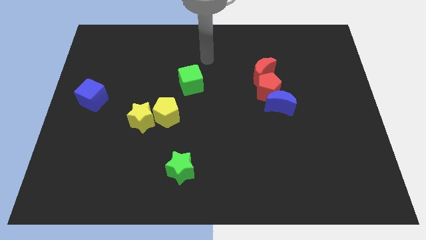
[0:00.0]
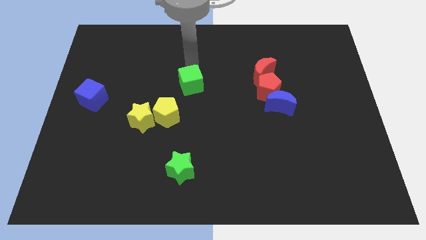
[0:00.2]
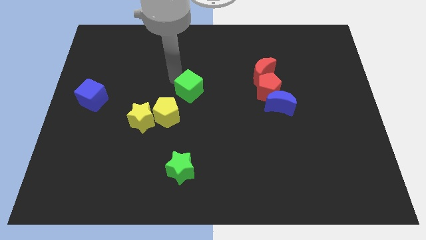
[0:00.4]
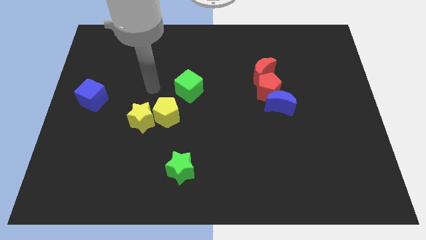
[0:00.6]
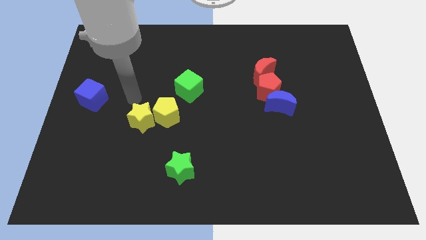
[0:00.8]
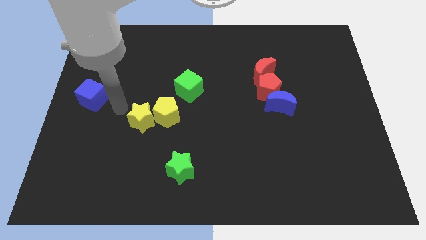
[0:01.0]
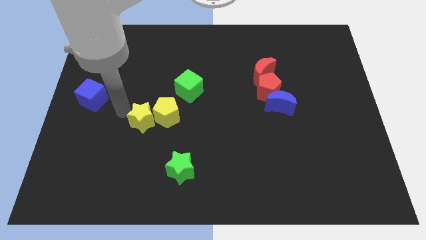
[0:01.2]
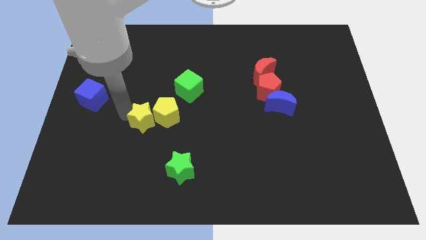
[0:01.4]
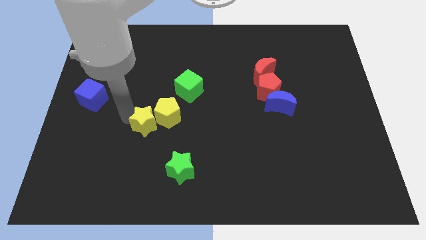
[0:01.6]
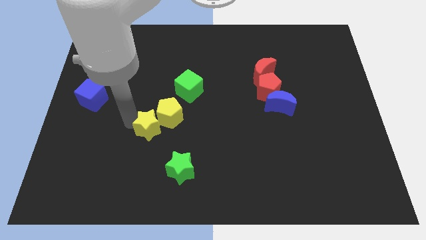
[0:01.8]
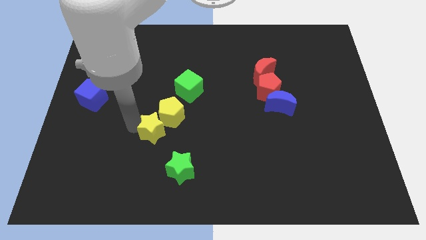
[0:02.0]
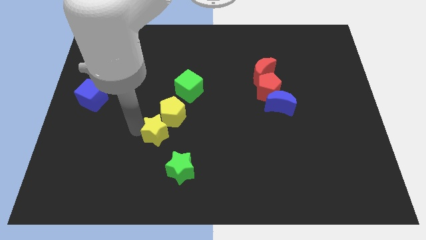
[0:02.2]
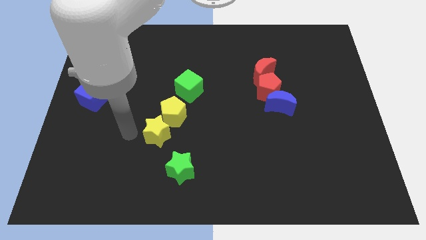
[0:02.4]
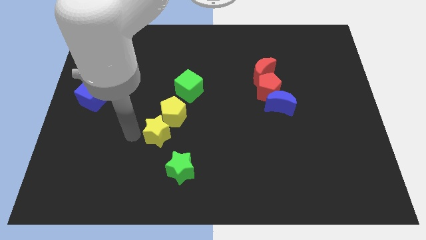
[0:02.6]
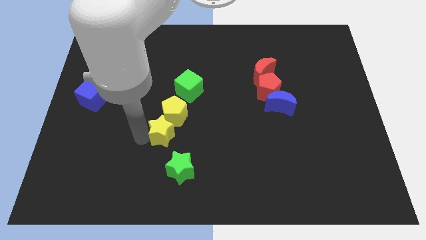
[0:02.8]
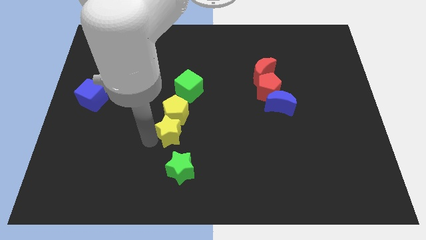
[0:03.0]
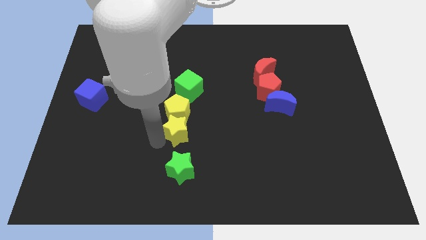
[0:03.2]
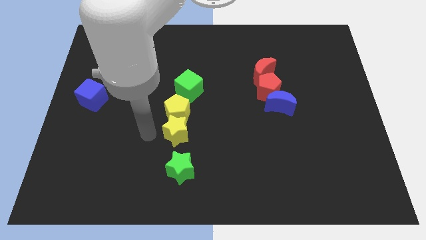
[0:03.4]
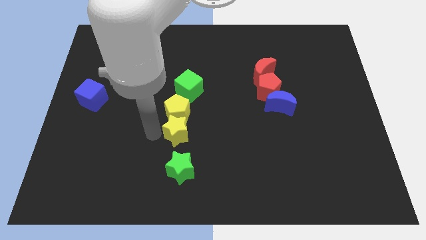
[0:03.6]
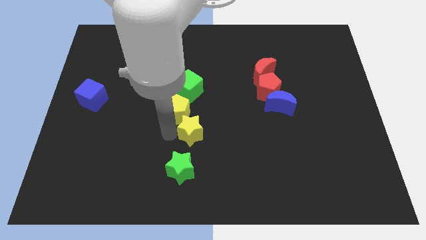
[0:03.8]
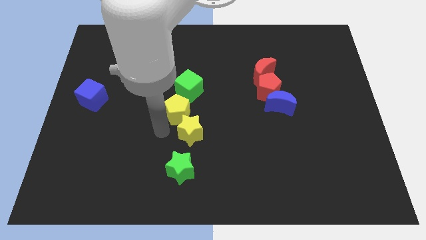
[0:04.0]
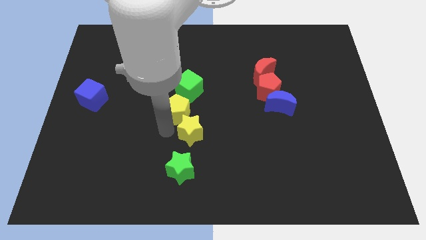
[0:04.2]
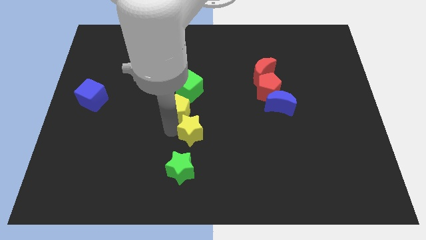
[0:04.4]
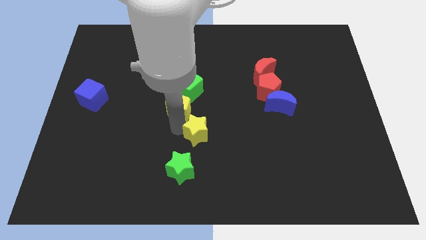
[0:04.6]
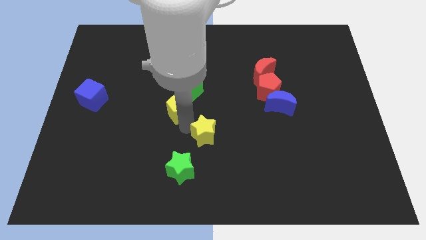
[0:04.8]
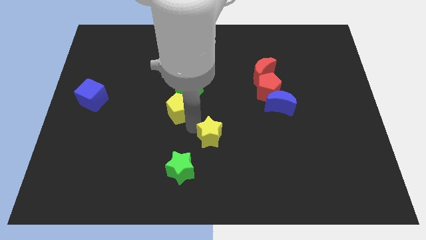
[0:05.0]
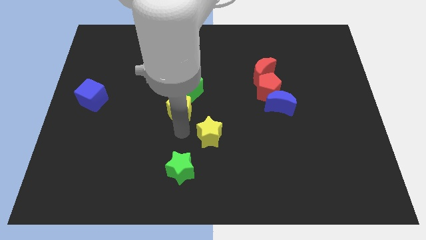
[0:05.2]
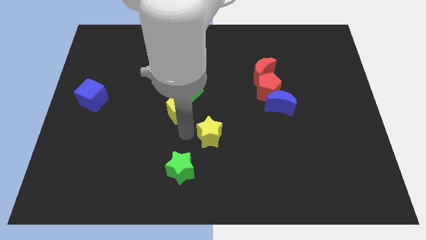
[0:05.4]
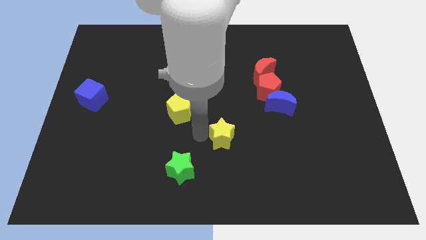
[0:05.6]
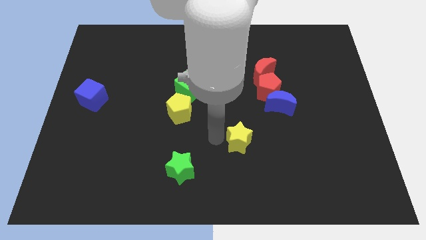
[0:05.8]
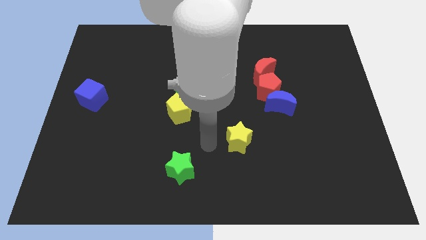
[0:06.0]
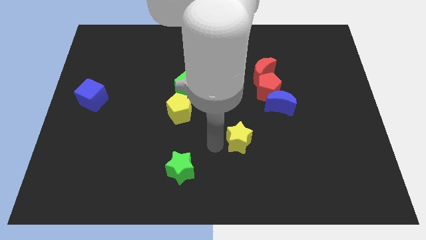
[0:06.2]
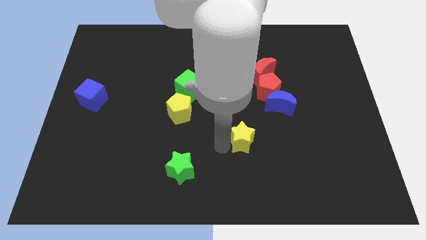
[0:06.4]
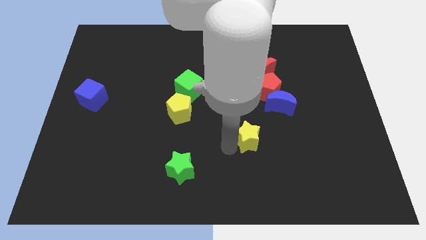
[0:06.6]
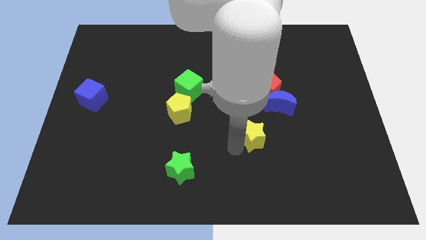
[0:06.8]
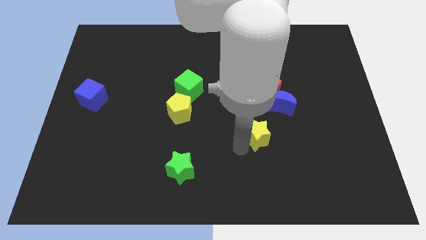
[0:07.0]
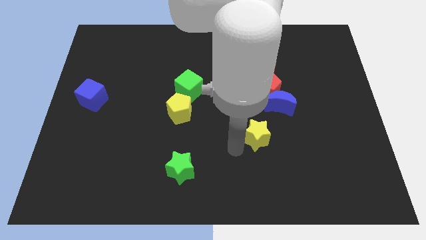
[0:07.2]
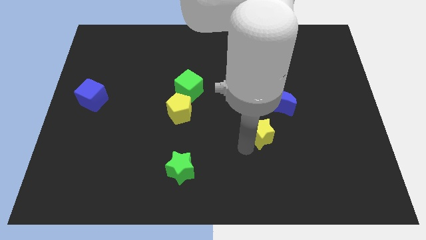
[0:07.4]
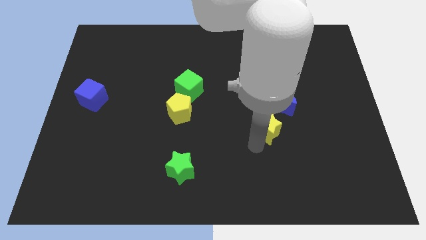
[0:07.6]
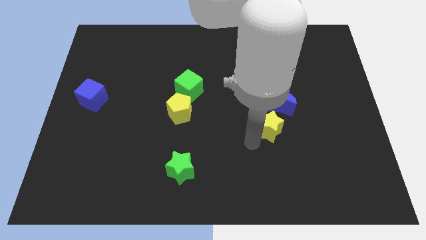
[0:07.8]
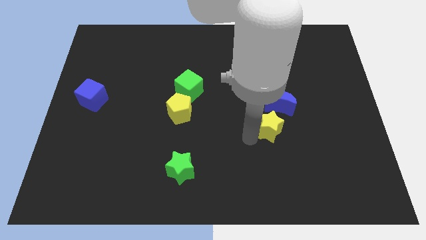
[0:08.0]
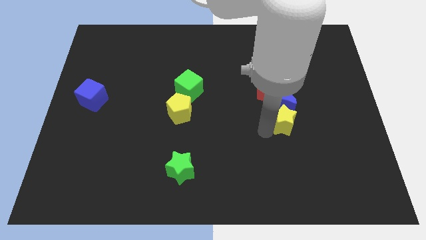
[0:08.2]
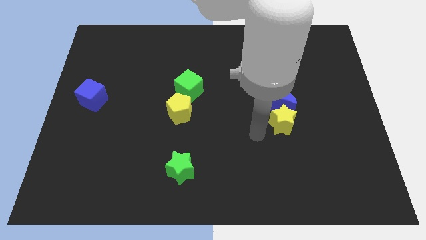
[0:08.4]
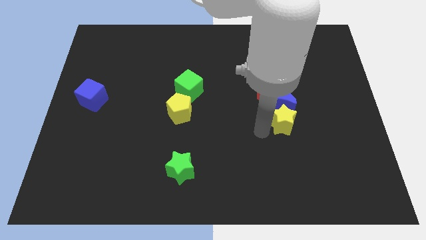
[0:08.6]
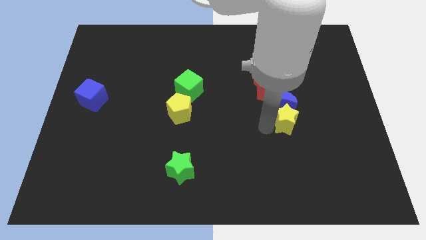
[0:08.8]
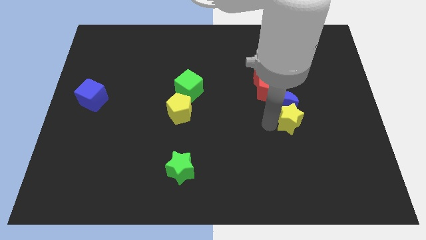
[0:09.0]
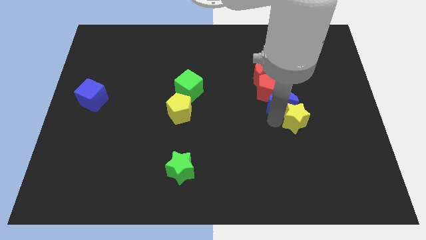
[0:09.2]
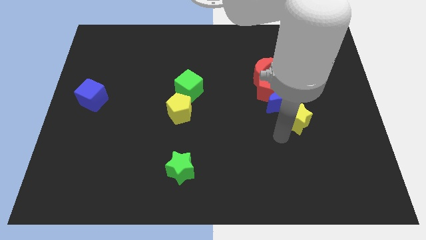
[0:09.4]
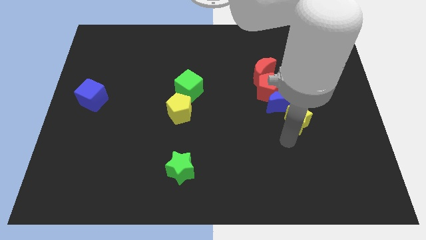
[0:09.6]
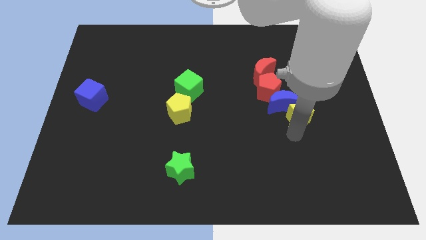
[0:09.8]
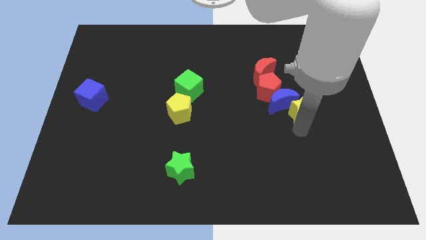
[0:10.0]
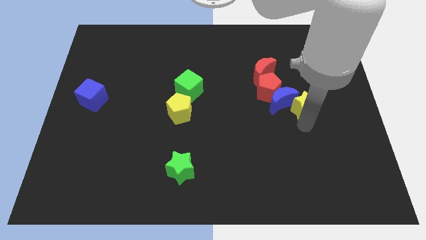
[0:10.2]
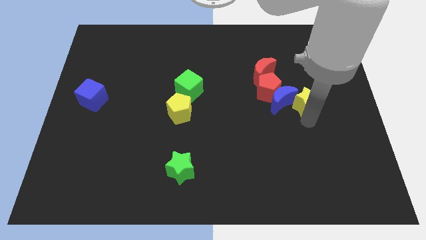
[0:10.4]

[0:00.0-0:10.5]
move the yellow star to the right side of the red pentagon

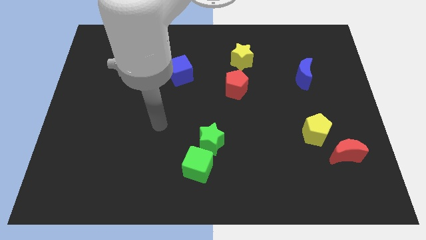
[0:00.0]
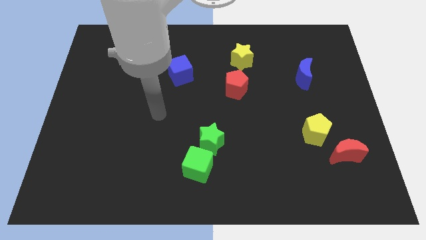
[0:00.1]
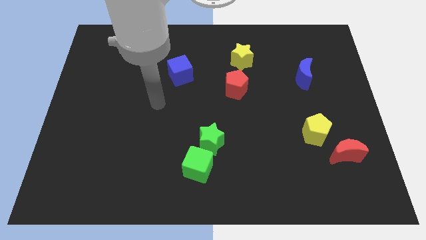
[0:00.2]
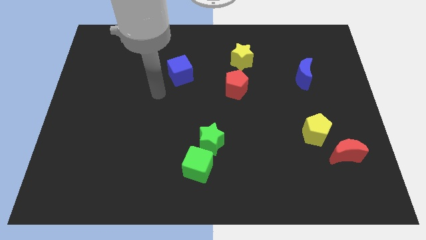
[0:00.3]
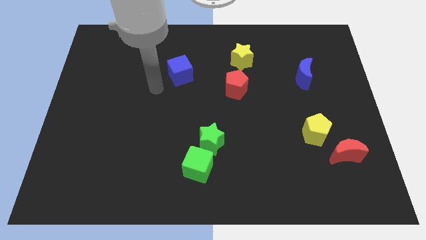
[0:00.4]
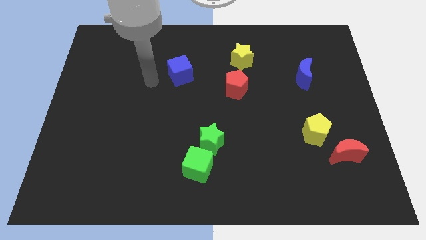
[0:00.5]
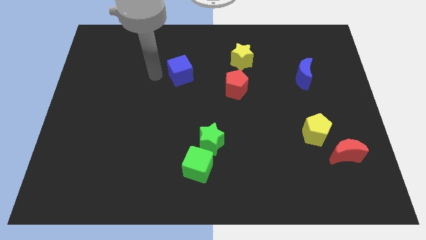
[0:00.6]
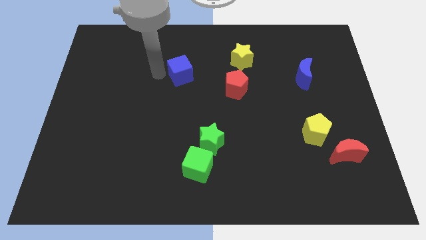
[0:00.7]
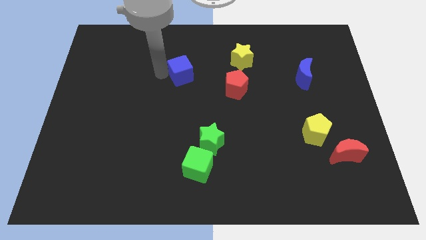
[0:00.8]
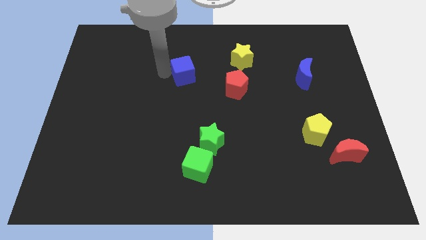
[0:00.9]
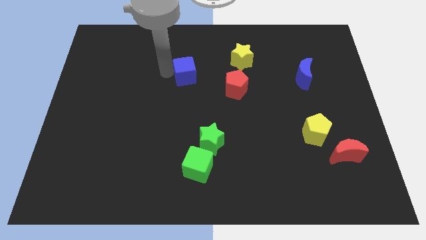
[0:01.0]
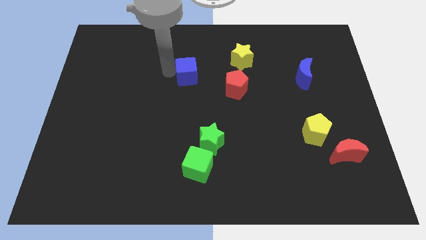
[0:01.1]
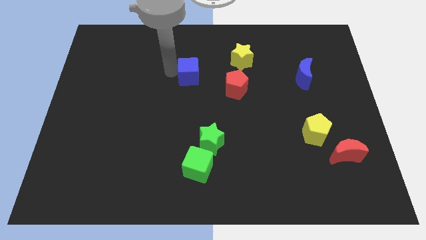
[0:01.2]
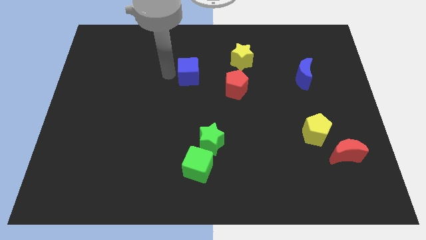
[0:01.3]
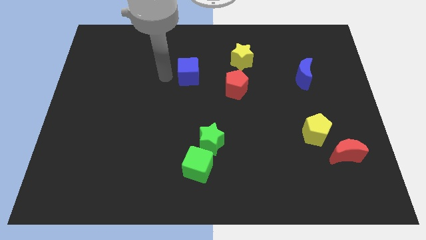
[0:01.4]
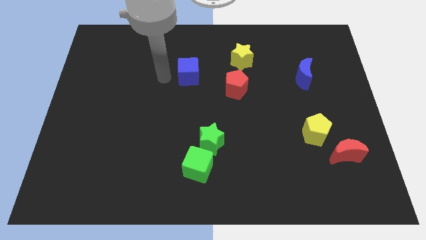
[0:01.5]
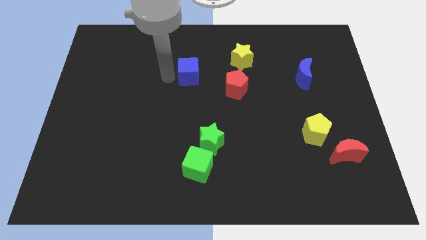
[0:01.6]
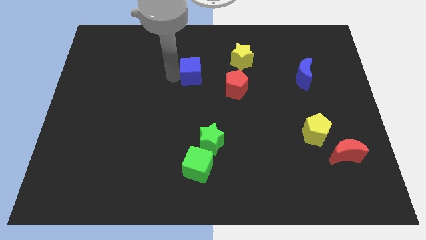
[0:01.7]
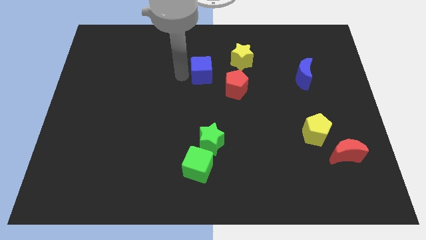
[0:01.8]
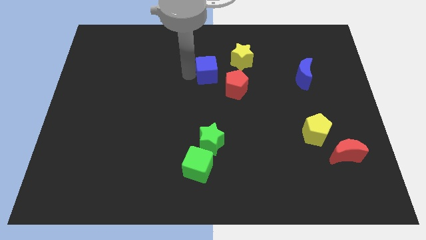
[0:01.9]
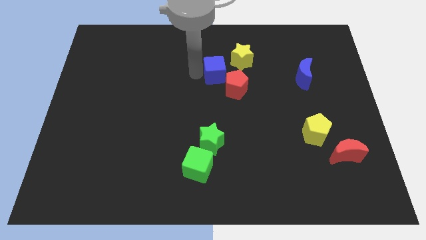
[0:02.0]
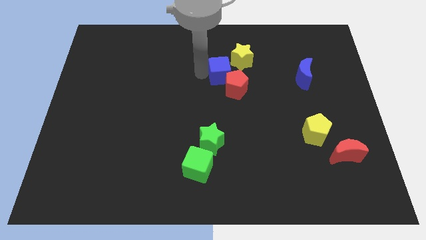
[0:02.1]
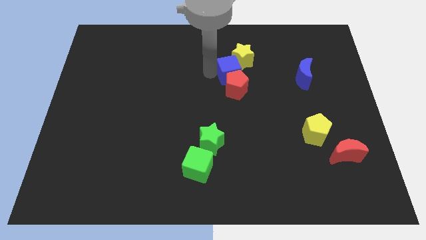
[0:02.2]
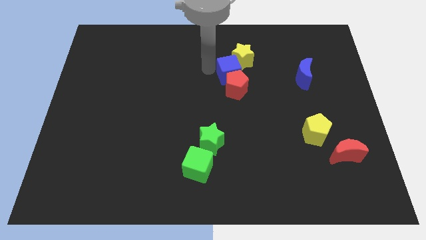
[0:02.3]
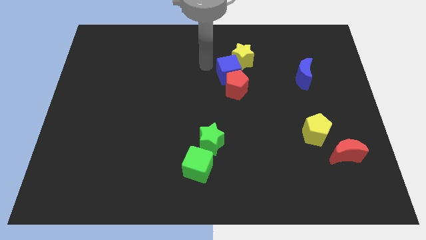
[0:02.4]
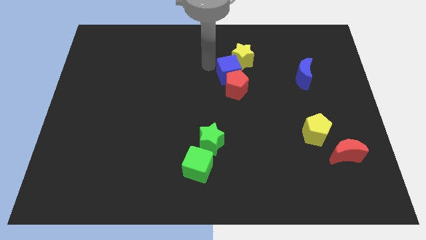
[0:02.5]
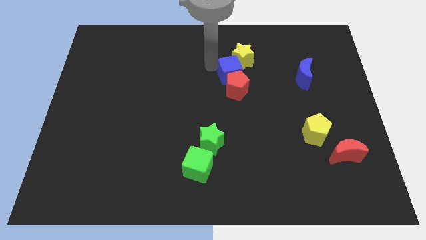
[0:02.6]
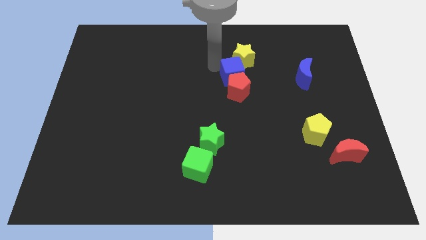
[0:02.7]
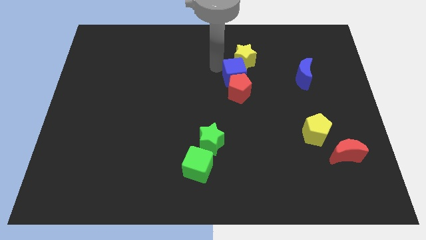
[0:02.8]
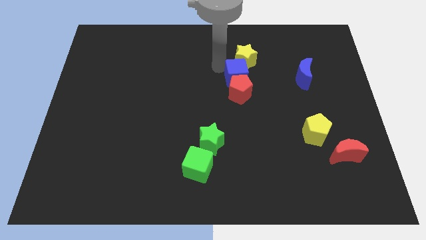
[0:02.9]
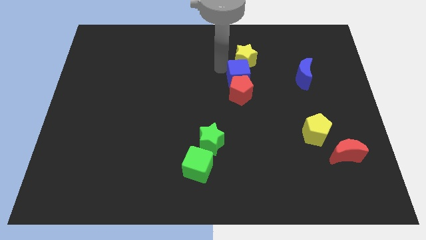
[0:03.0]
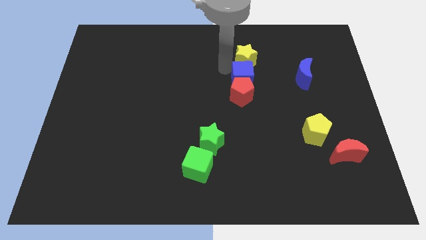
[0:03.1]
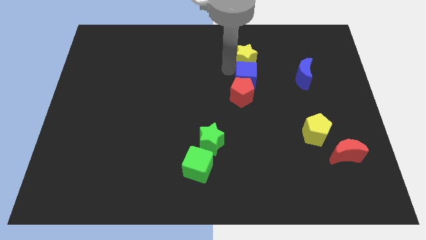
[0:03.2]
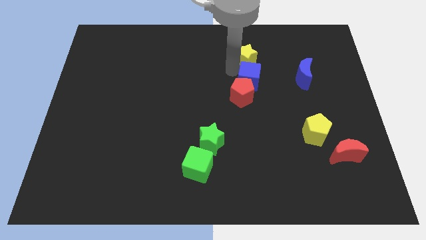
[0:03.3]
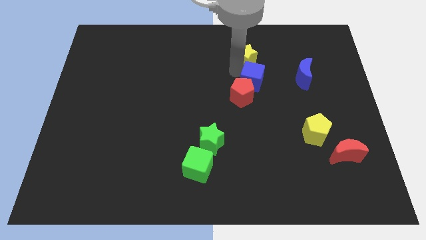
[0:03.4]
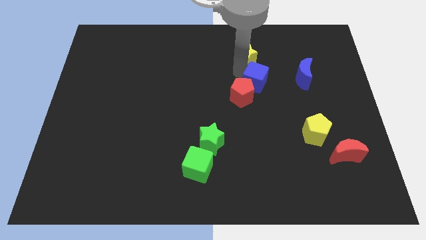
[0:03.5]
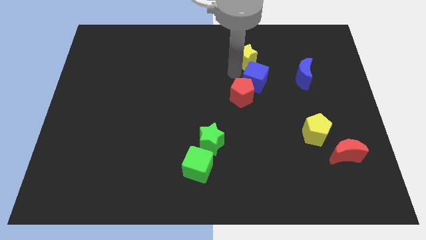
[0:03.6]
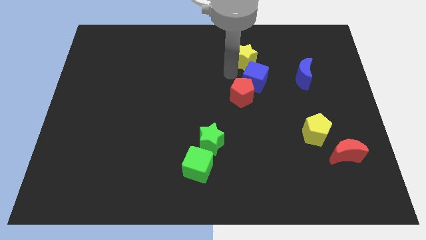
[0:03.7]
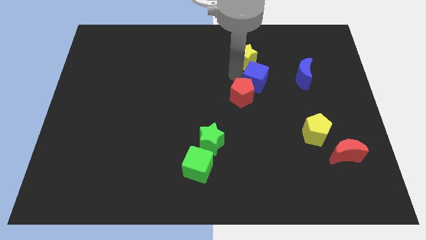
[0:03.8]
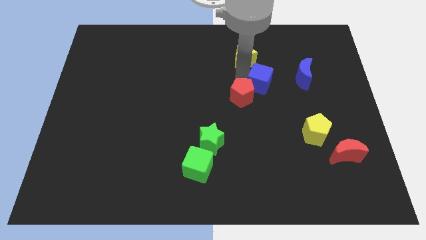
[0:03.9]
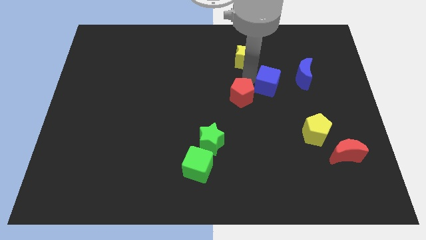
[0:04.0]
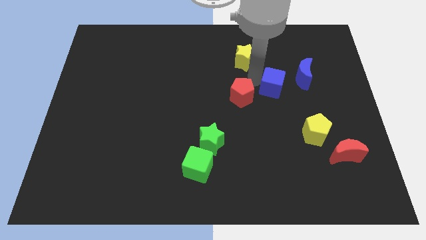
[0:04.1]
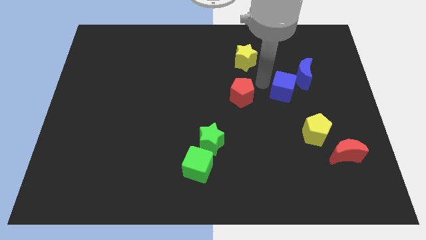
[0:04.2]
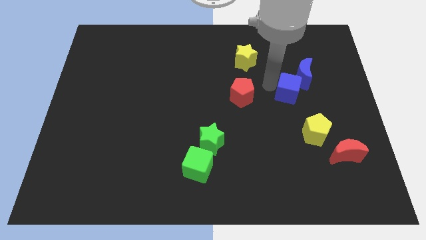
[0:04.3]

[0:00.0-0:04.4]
push the blue cube above the yellow pentagon
